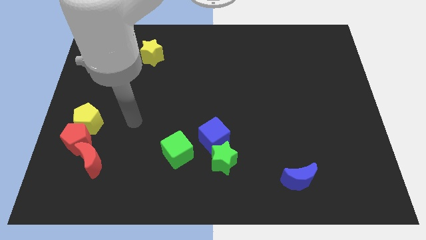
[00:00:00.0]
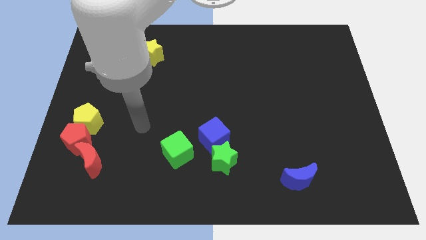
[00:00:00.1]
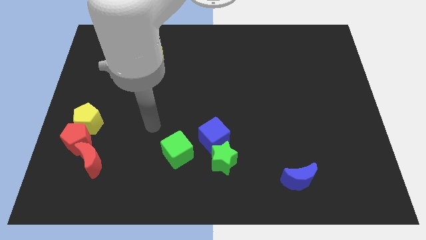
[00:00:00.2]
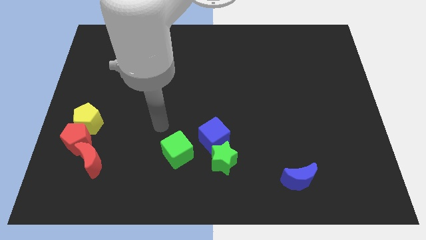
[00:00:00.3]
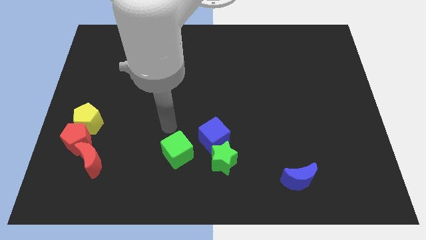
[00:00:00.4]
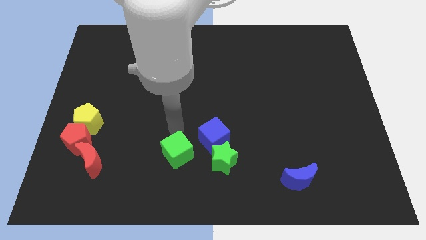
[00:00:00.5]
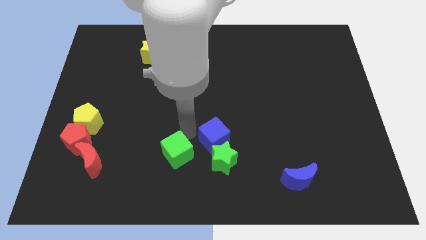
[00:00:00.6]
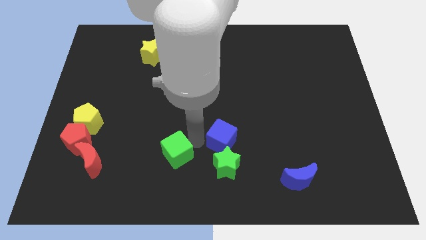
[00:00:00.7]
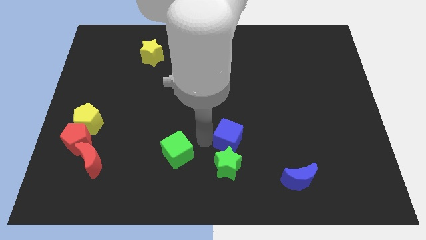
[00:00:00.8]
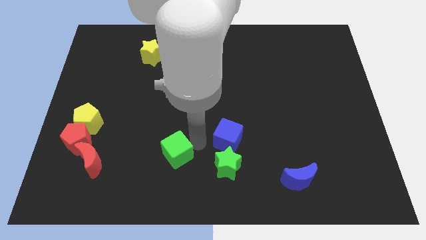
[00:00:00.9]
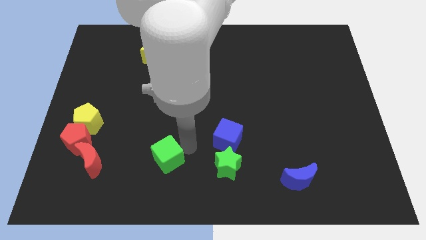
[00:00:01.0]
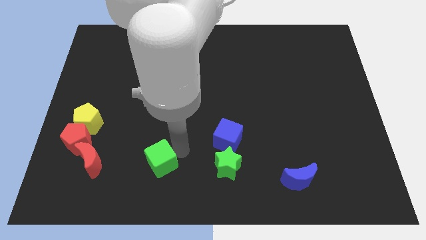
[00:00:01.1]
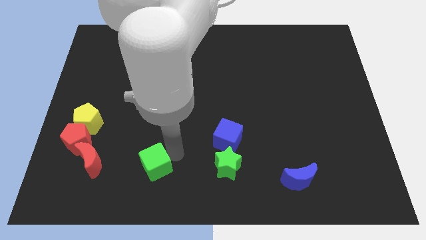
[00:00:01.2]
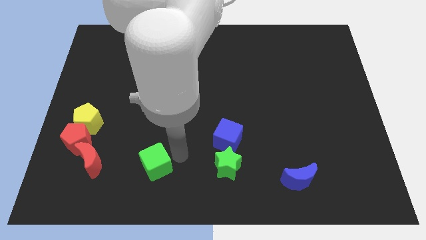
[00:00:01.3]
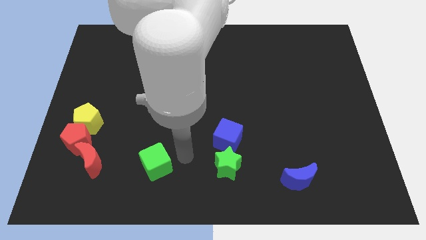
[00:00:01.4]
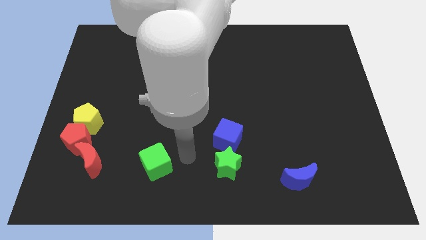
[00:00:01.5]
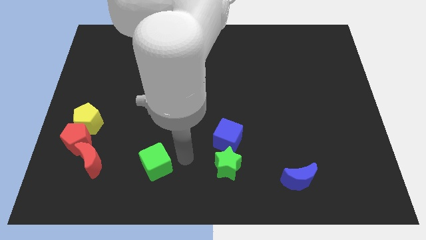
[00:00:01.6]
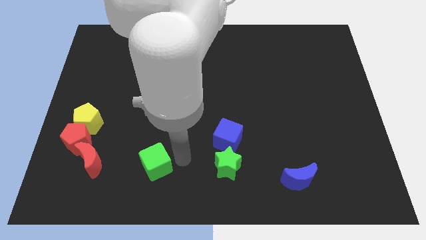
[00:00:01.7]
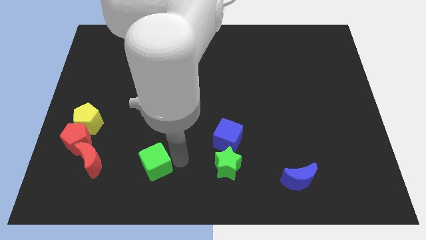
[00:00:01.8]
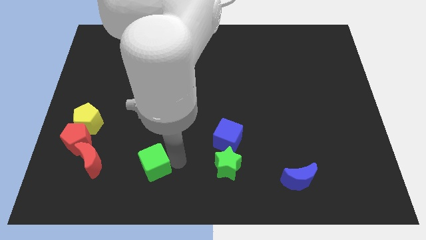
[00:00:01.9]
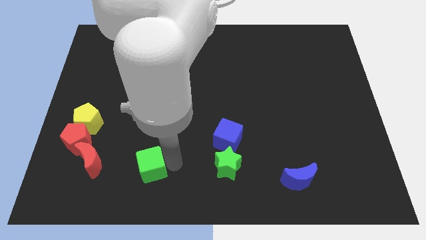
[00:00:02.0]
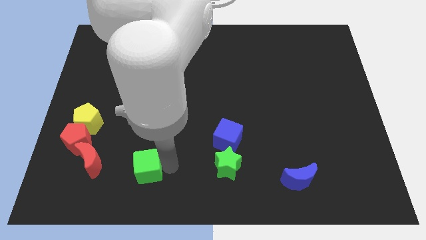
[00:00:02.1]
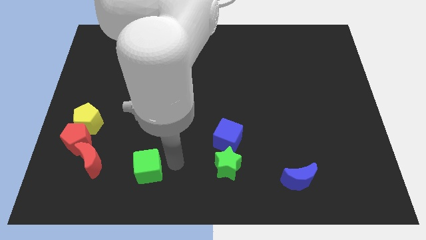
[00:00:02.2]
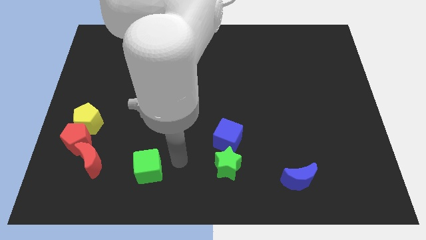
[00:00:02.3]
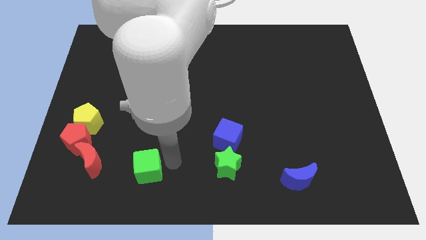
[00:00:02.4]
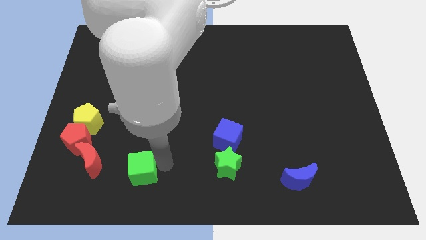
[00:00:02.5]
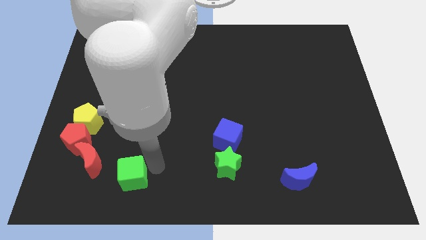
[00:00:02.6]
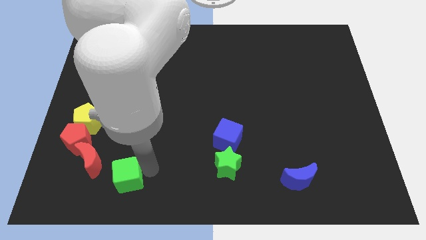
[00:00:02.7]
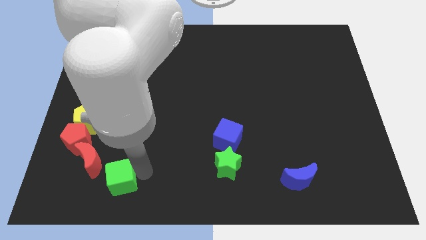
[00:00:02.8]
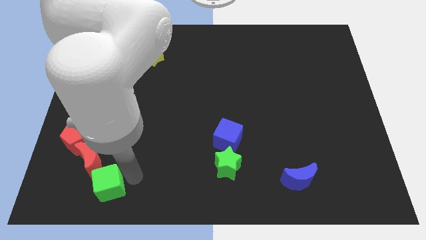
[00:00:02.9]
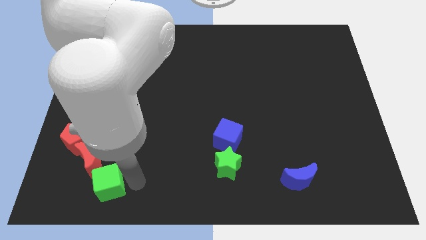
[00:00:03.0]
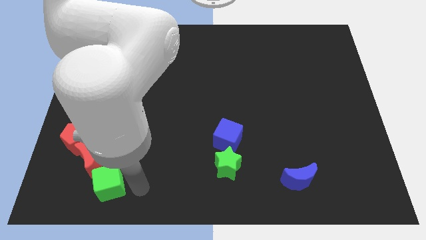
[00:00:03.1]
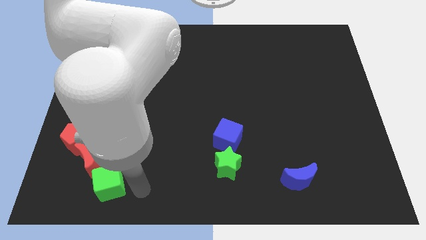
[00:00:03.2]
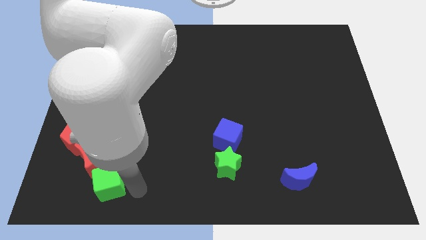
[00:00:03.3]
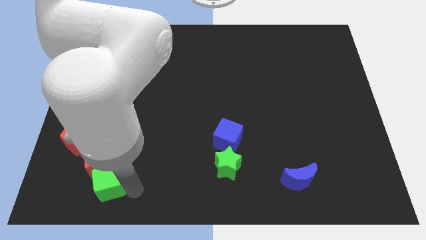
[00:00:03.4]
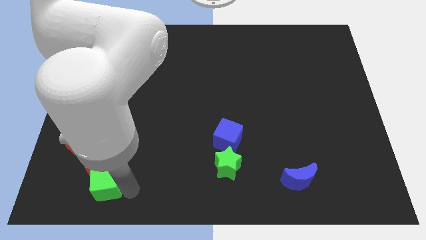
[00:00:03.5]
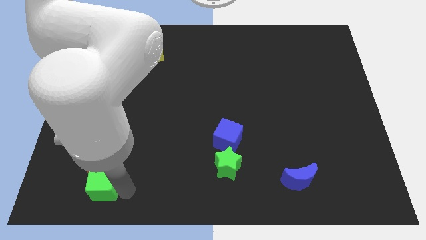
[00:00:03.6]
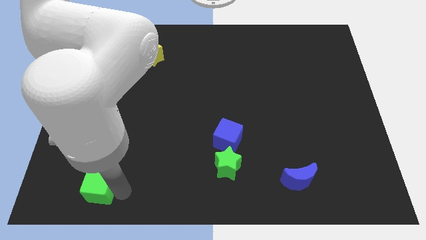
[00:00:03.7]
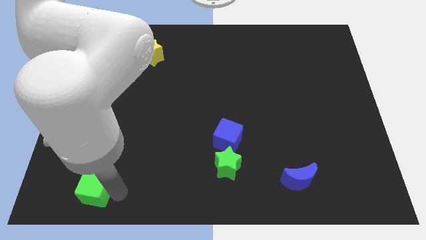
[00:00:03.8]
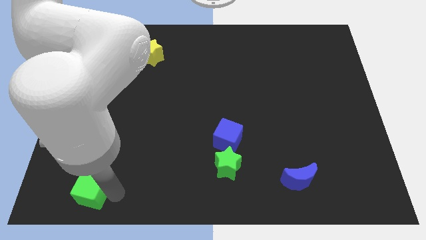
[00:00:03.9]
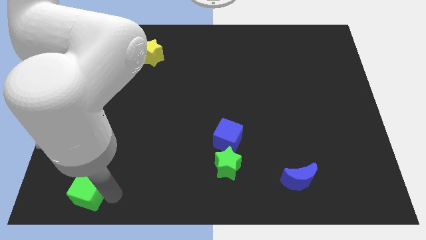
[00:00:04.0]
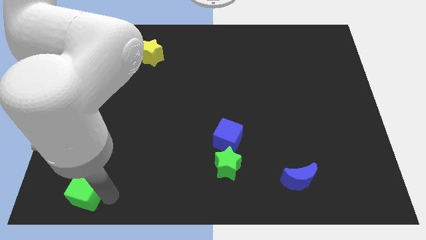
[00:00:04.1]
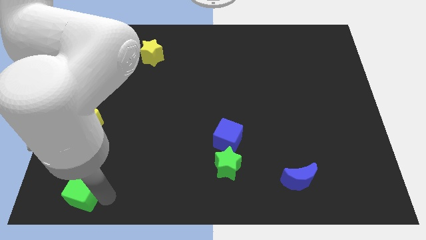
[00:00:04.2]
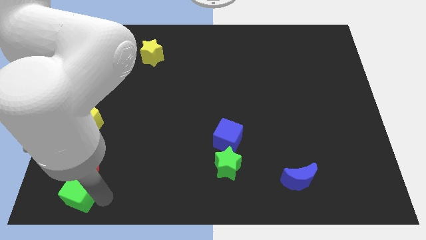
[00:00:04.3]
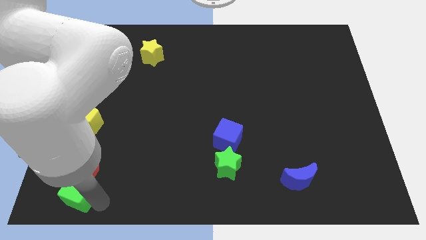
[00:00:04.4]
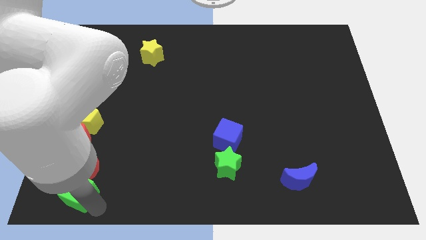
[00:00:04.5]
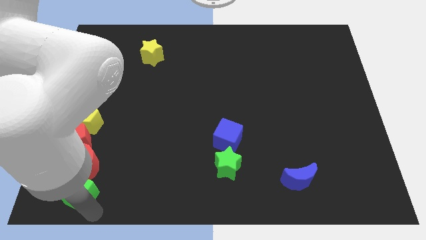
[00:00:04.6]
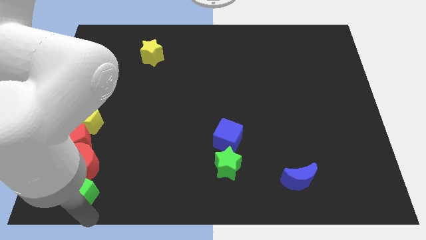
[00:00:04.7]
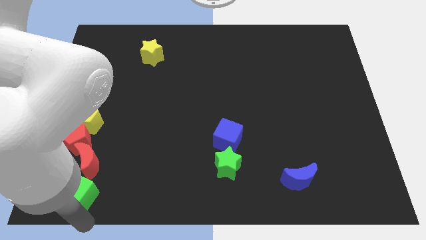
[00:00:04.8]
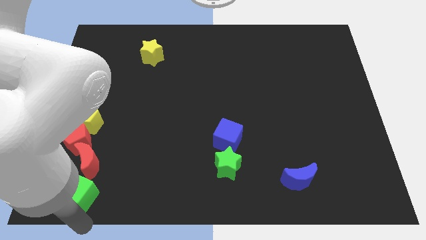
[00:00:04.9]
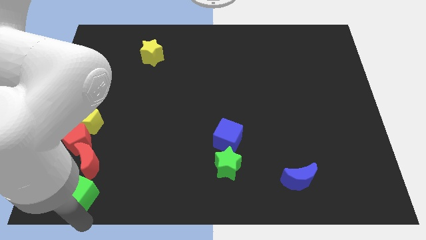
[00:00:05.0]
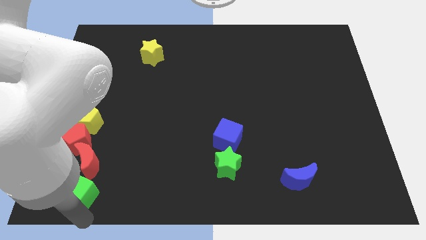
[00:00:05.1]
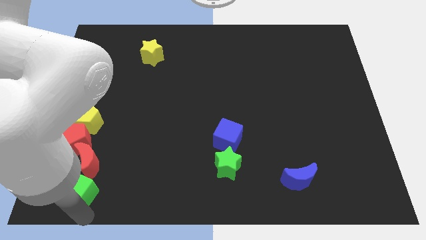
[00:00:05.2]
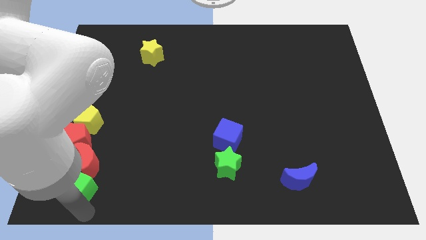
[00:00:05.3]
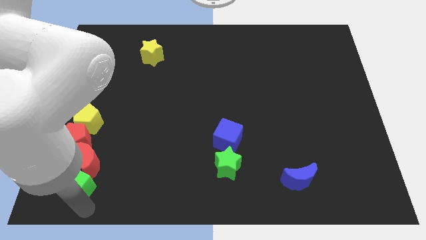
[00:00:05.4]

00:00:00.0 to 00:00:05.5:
move the green cube to the bottom of the yellow pentagon

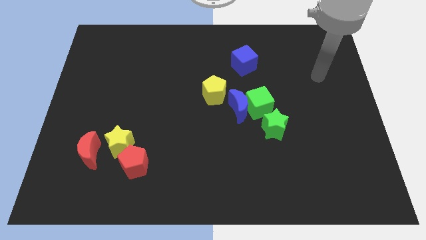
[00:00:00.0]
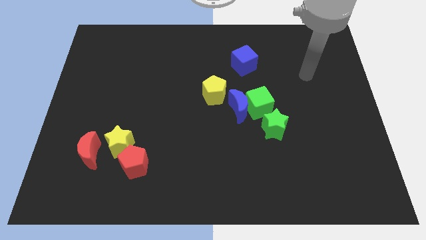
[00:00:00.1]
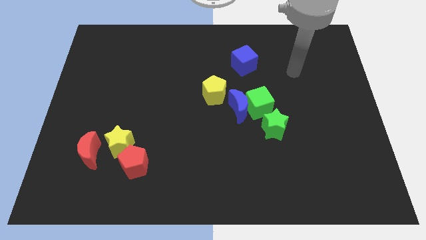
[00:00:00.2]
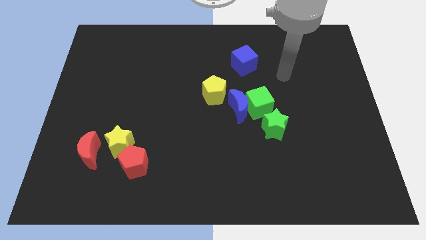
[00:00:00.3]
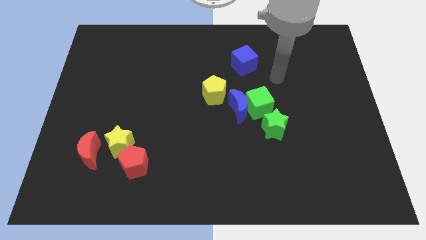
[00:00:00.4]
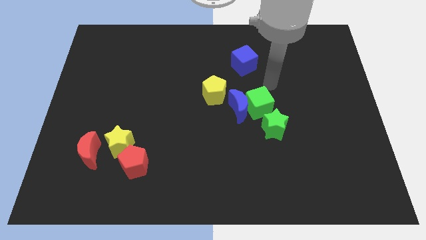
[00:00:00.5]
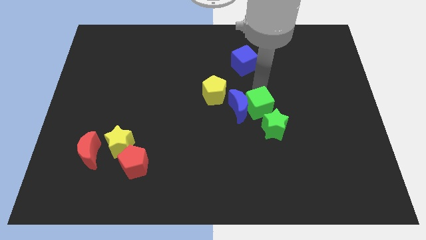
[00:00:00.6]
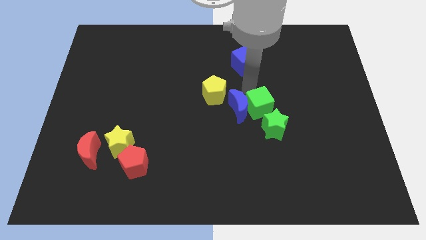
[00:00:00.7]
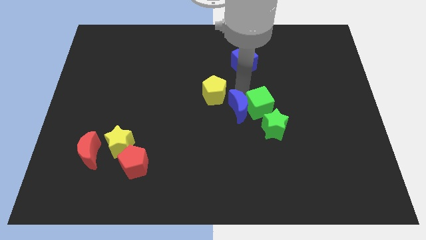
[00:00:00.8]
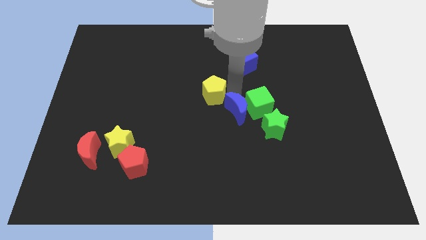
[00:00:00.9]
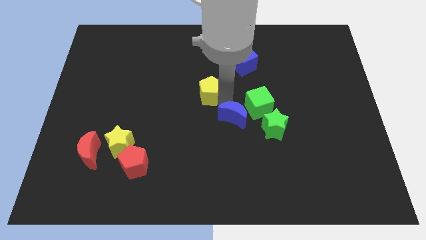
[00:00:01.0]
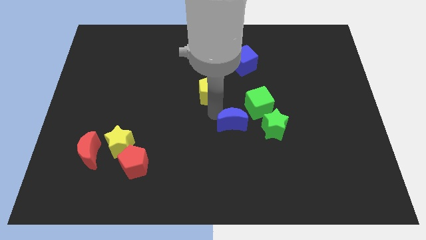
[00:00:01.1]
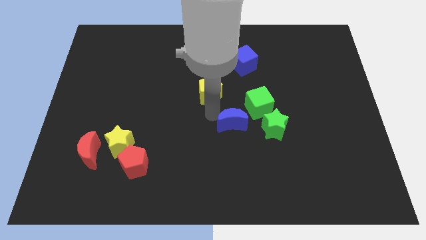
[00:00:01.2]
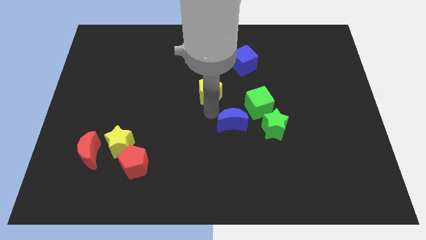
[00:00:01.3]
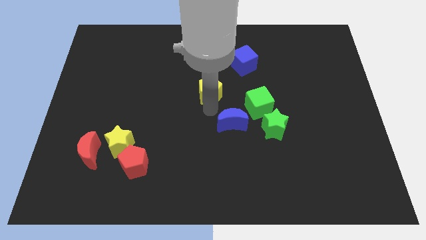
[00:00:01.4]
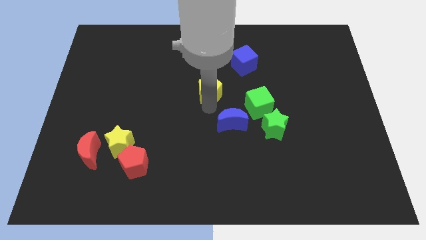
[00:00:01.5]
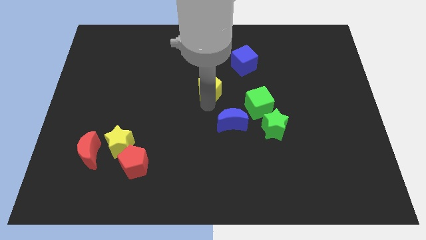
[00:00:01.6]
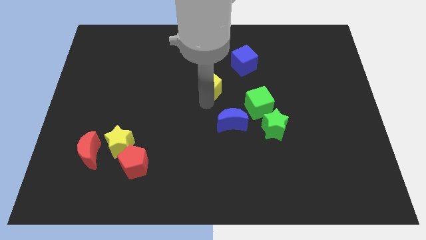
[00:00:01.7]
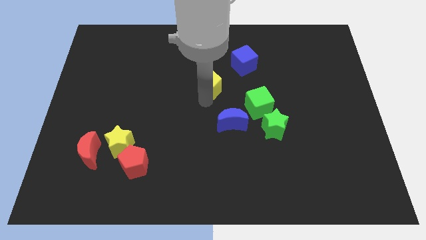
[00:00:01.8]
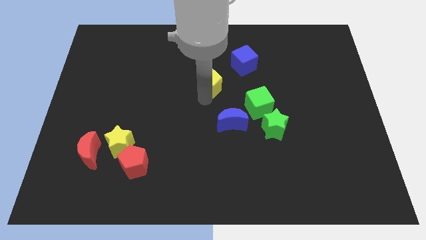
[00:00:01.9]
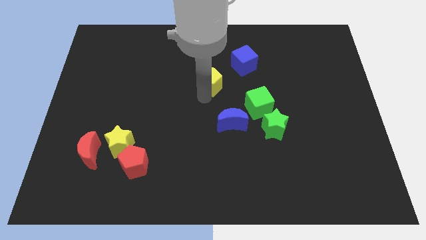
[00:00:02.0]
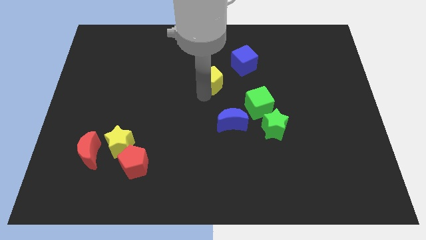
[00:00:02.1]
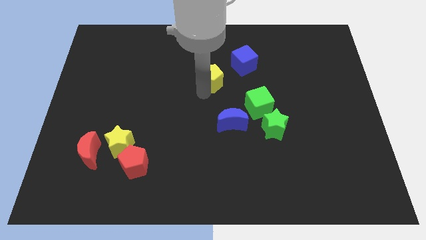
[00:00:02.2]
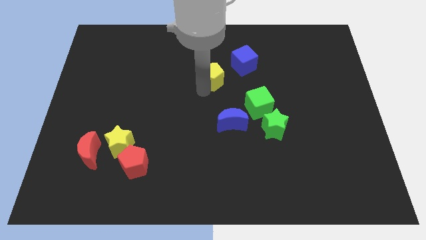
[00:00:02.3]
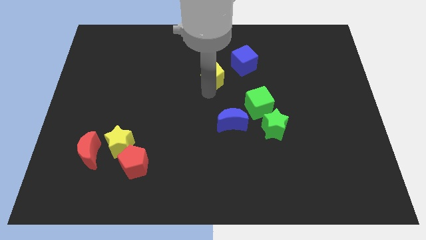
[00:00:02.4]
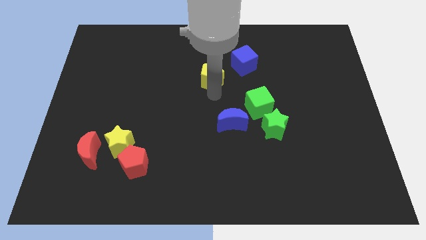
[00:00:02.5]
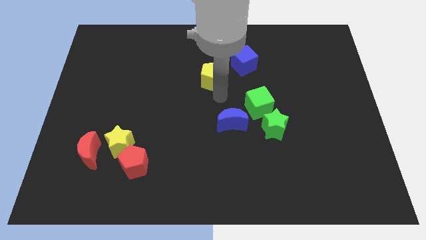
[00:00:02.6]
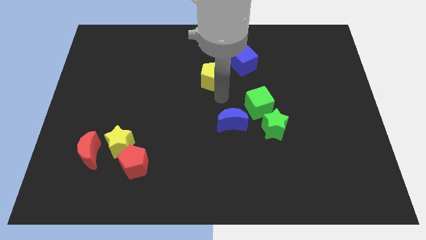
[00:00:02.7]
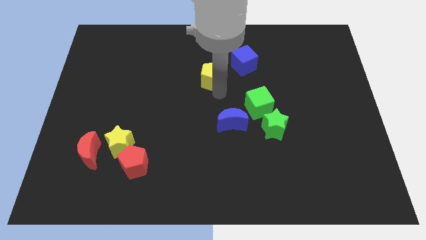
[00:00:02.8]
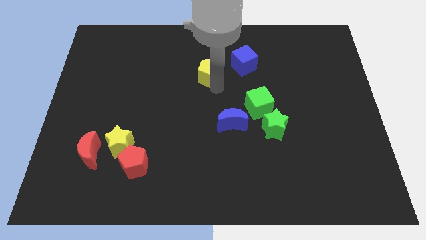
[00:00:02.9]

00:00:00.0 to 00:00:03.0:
slide the yellow pentagon left of the blue cube
